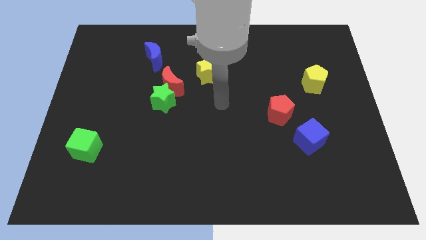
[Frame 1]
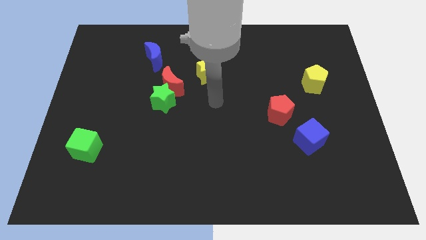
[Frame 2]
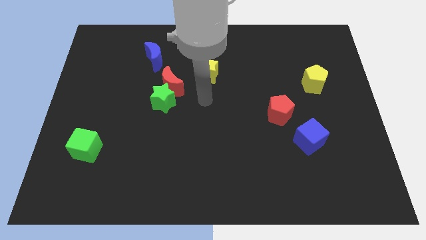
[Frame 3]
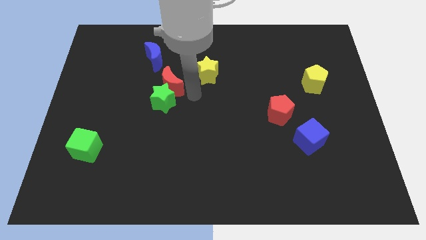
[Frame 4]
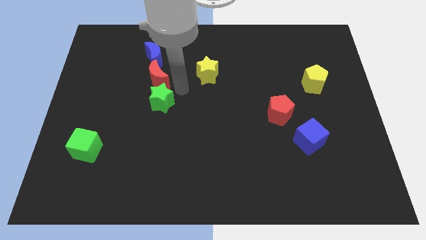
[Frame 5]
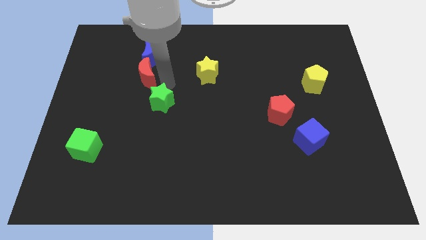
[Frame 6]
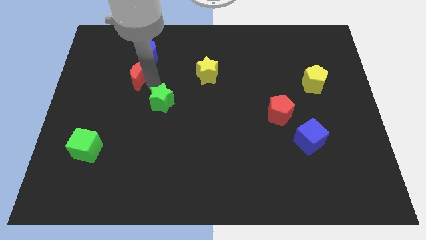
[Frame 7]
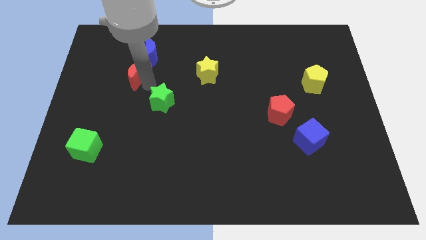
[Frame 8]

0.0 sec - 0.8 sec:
move the green star away from the red moon

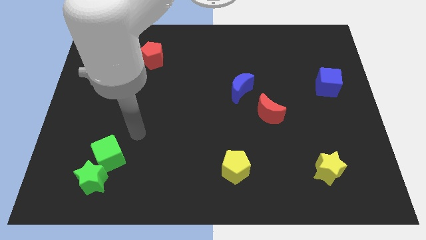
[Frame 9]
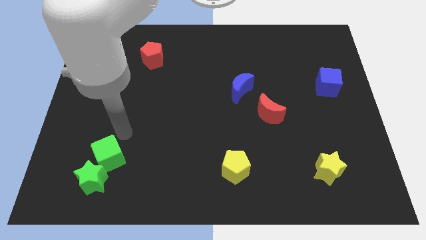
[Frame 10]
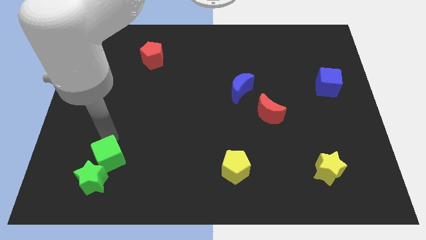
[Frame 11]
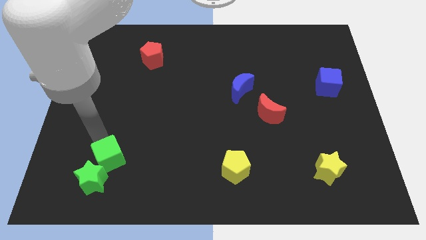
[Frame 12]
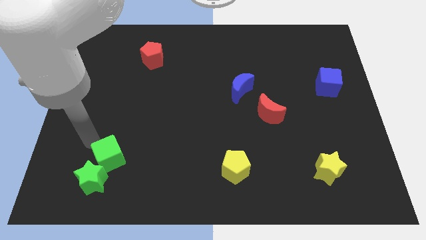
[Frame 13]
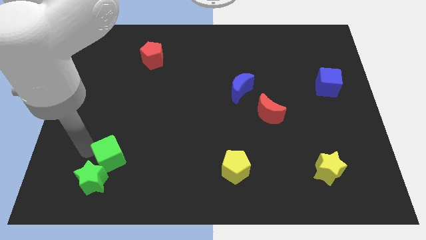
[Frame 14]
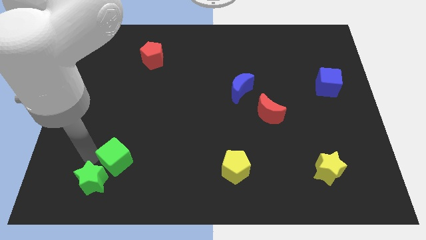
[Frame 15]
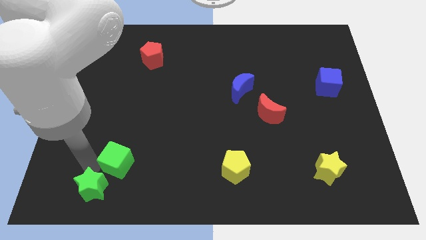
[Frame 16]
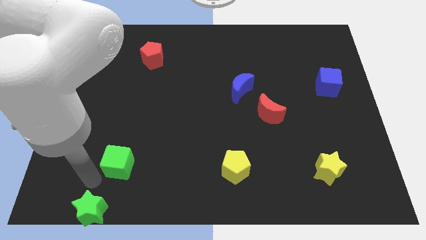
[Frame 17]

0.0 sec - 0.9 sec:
separate the green cube from the green star

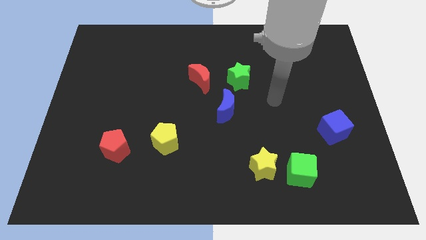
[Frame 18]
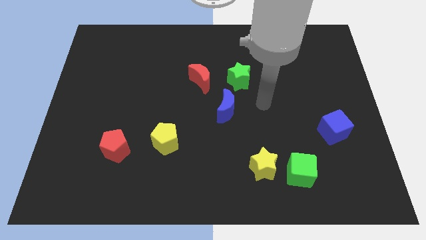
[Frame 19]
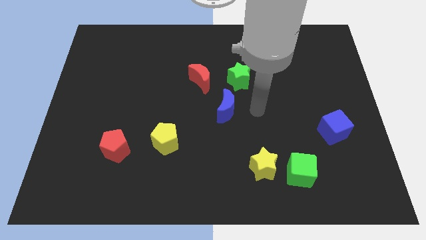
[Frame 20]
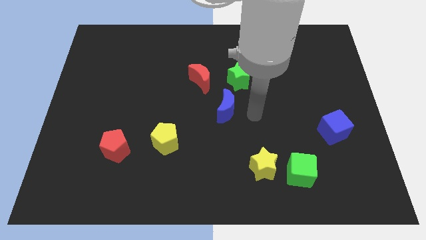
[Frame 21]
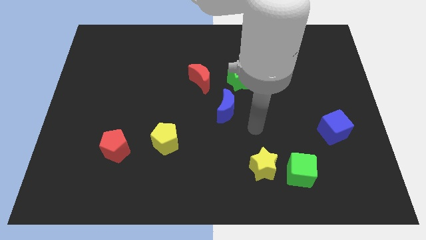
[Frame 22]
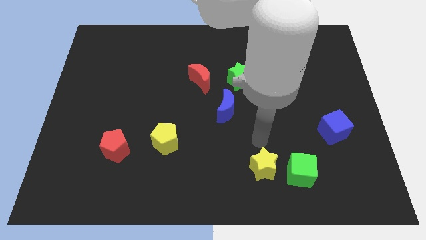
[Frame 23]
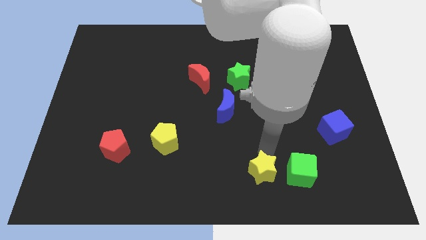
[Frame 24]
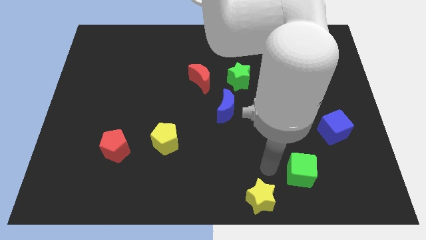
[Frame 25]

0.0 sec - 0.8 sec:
pull the green cube apart from the yellow star

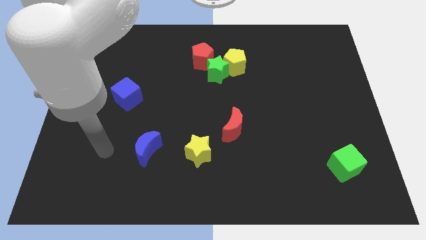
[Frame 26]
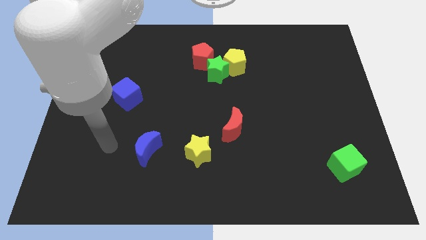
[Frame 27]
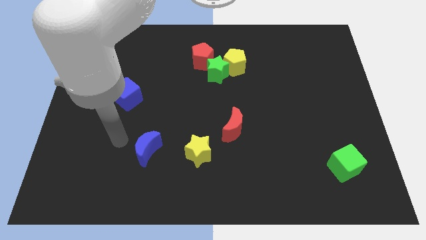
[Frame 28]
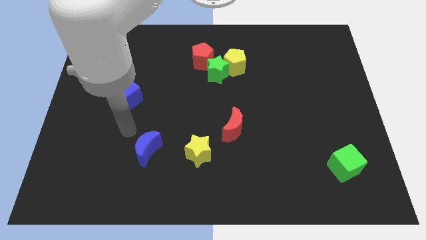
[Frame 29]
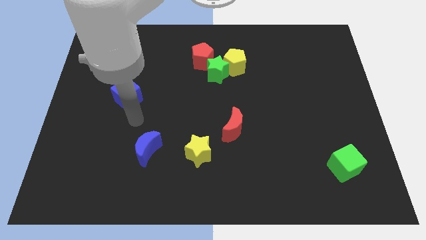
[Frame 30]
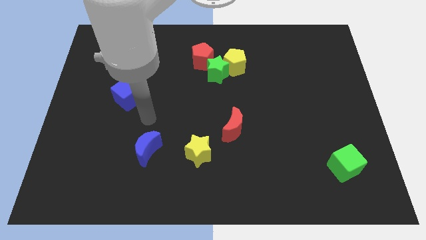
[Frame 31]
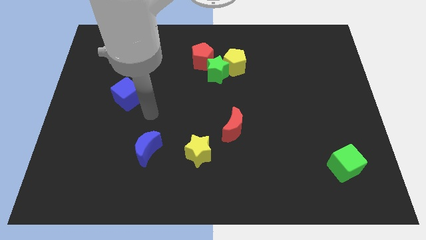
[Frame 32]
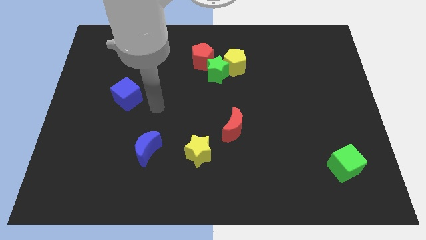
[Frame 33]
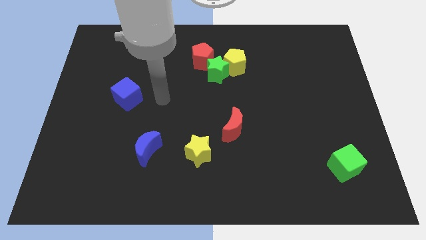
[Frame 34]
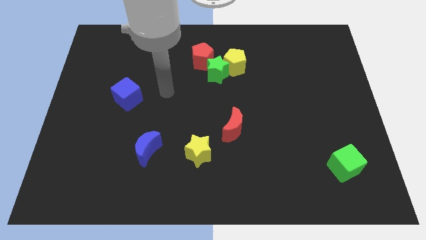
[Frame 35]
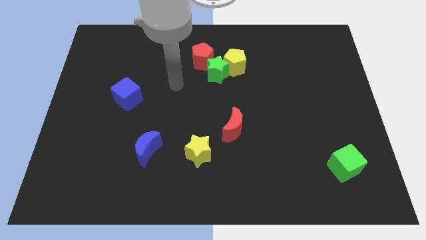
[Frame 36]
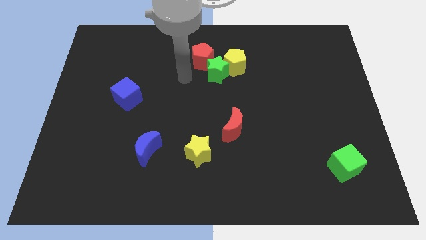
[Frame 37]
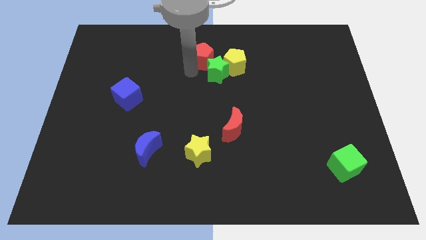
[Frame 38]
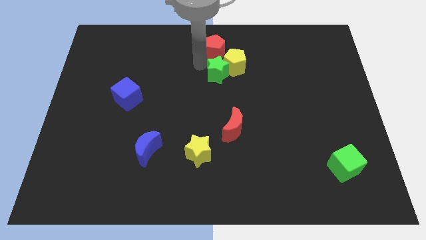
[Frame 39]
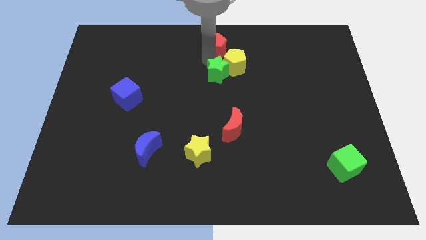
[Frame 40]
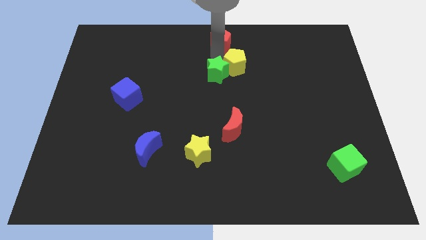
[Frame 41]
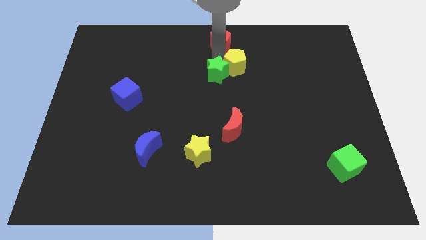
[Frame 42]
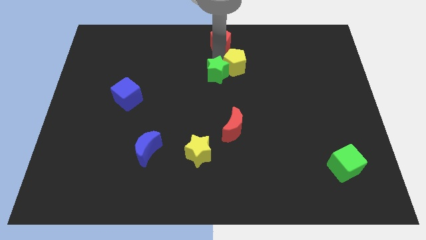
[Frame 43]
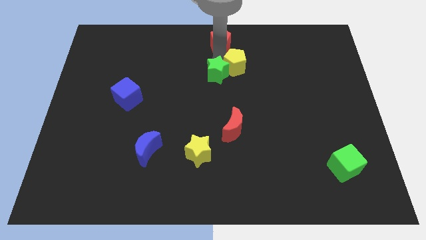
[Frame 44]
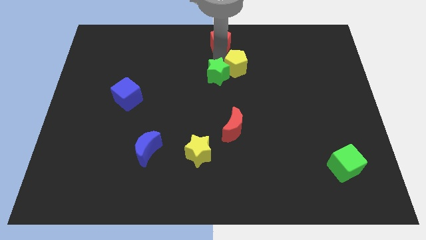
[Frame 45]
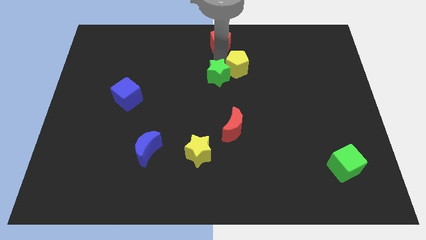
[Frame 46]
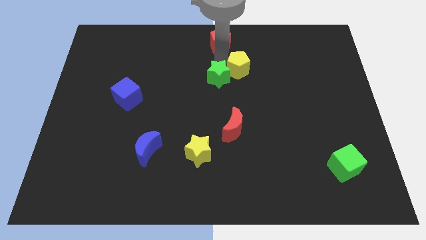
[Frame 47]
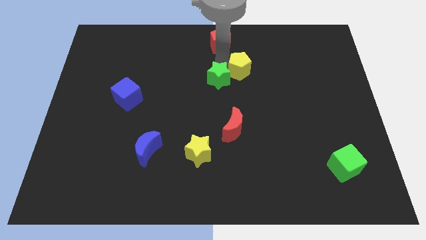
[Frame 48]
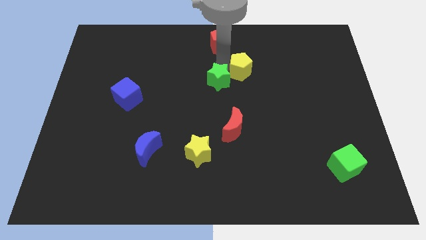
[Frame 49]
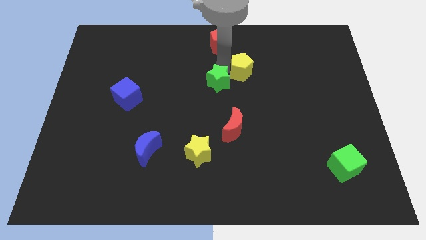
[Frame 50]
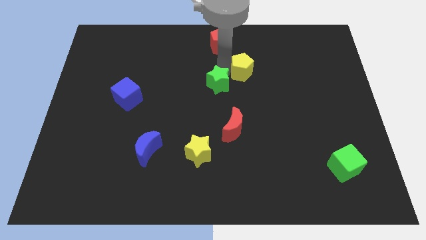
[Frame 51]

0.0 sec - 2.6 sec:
pull the green star apart from the yellow pentagon and red pentagon

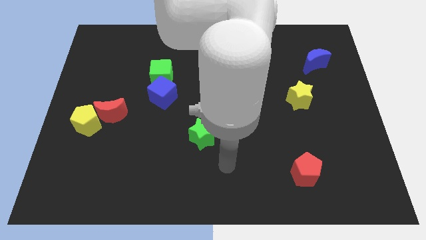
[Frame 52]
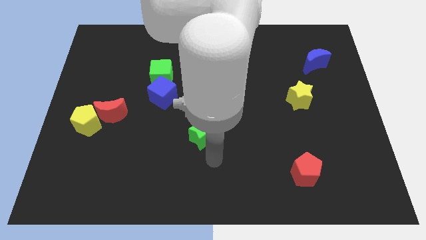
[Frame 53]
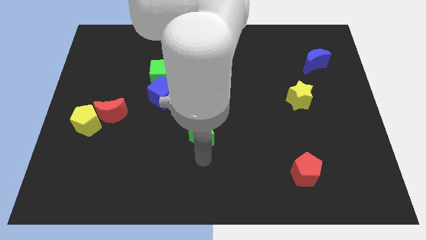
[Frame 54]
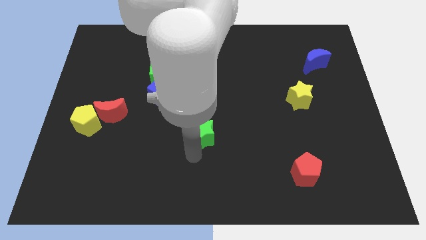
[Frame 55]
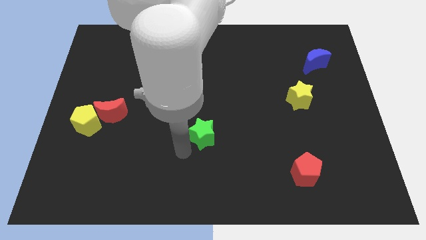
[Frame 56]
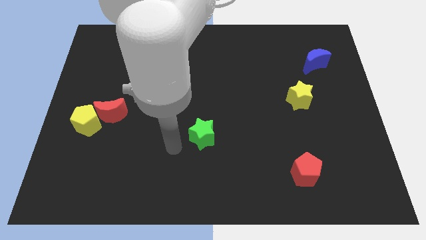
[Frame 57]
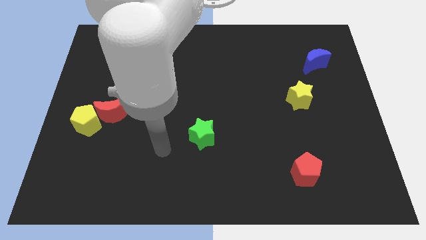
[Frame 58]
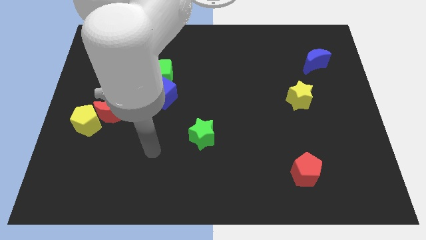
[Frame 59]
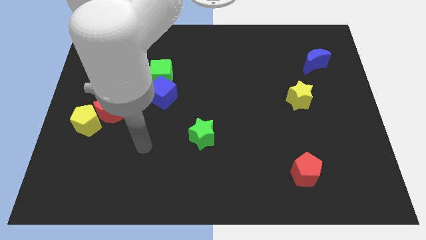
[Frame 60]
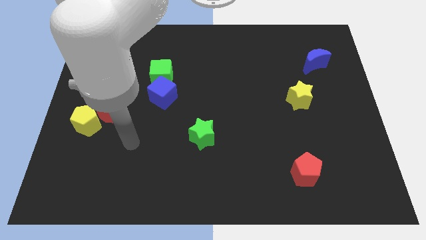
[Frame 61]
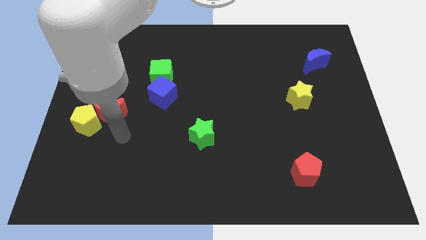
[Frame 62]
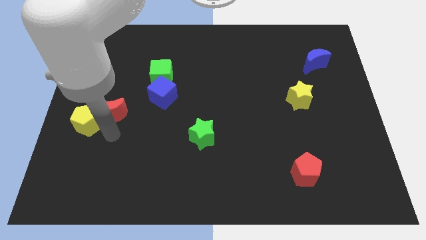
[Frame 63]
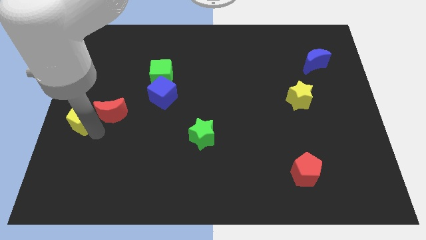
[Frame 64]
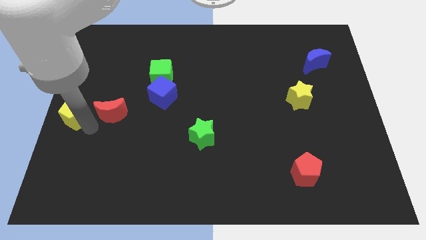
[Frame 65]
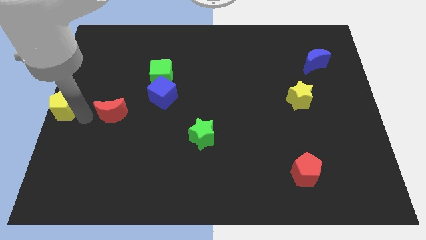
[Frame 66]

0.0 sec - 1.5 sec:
move the red moon away from the yellow pentagon

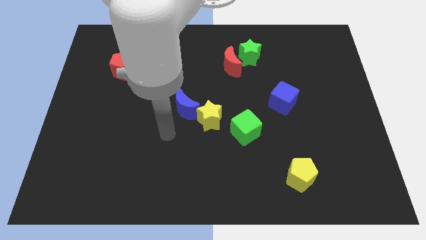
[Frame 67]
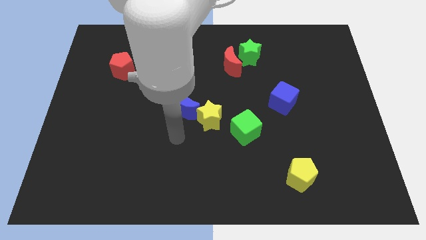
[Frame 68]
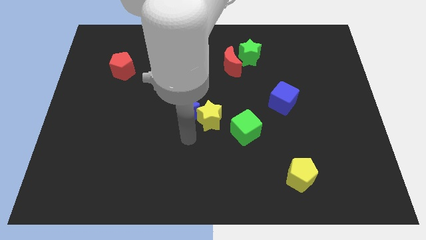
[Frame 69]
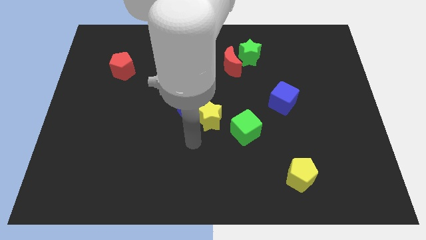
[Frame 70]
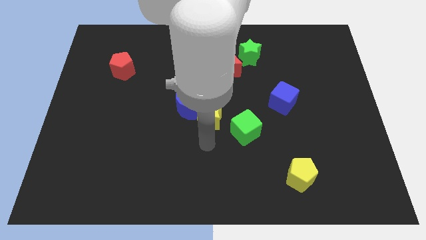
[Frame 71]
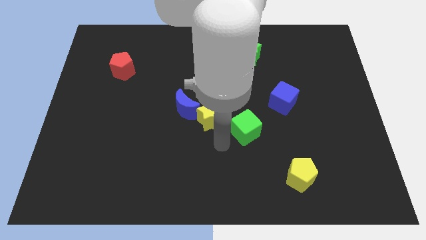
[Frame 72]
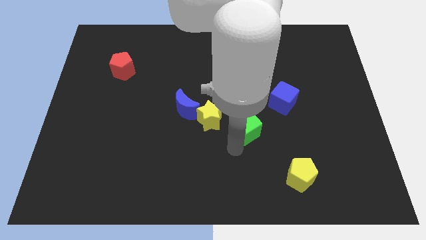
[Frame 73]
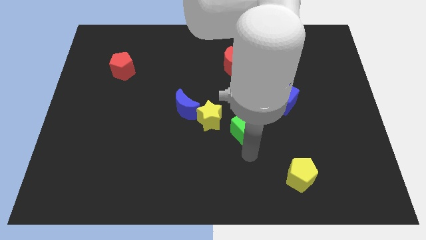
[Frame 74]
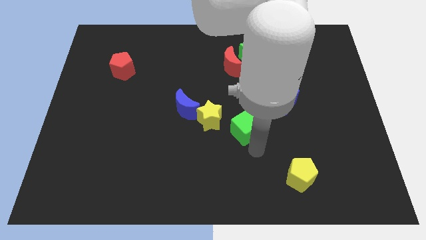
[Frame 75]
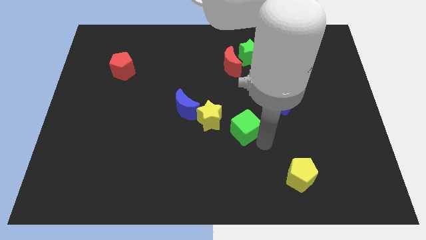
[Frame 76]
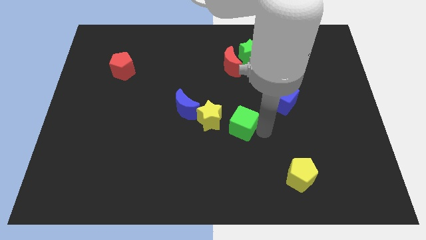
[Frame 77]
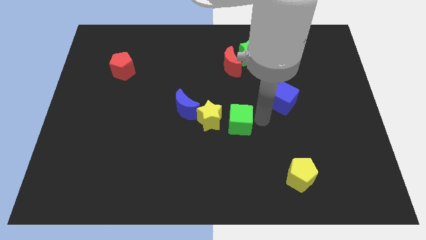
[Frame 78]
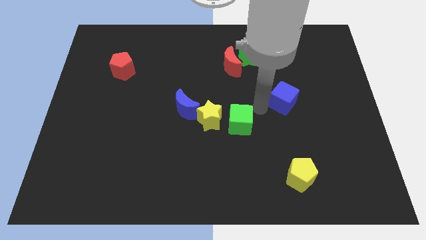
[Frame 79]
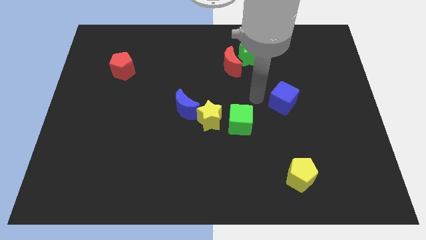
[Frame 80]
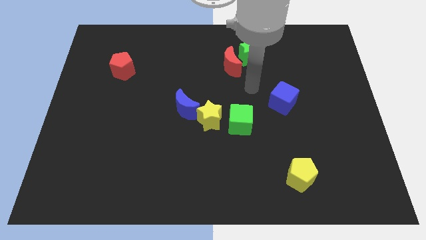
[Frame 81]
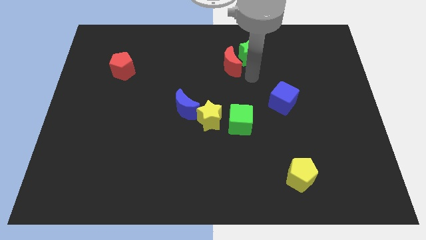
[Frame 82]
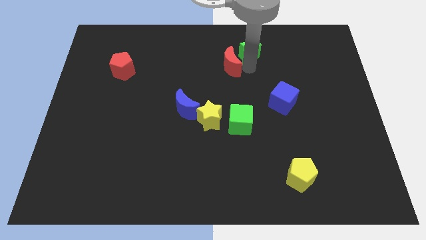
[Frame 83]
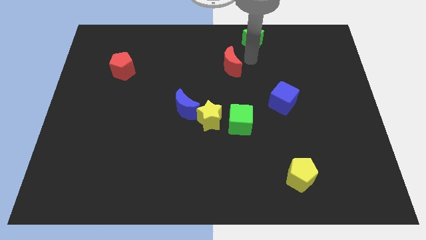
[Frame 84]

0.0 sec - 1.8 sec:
separate the red moon from the green star

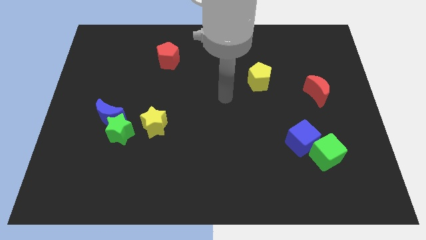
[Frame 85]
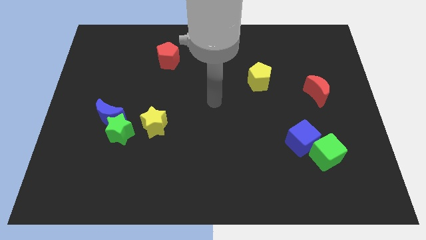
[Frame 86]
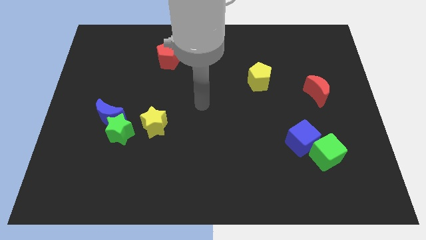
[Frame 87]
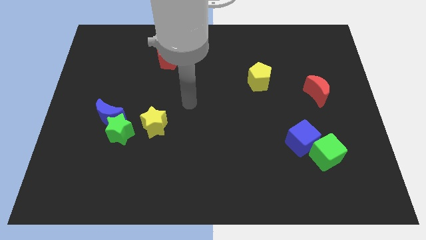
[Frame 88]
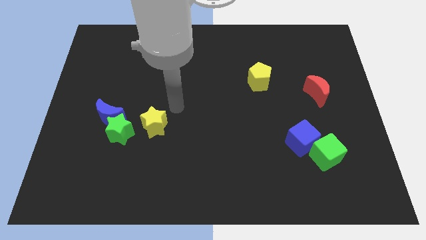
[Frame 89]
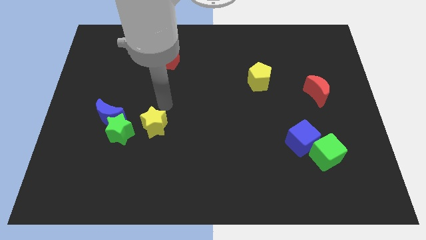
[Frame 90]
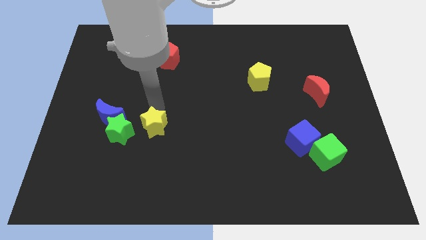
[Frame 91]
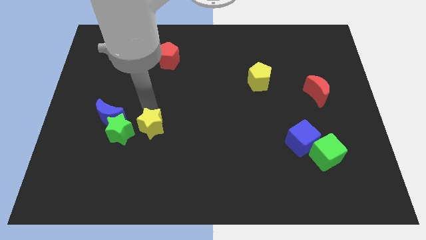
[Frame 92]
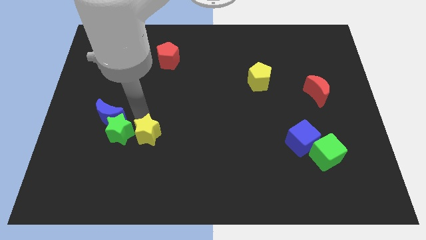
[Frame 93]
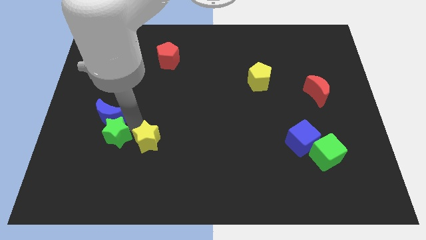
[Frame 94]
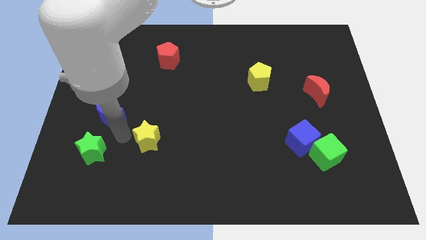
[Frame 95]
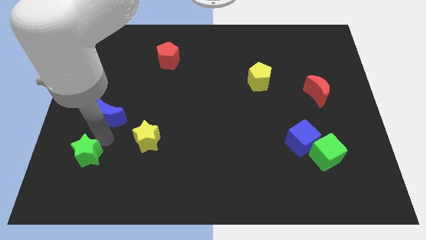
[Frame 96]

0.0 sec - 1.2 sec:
move the blue moon away from the green star
